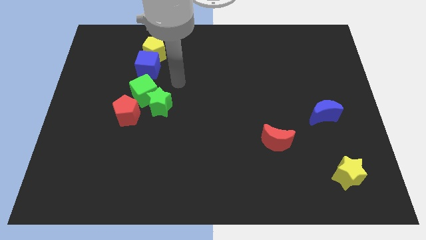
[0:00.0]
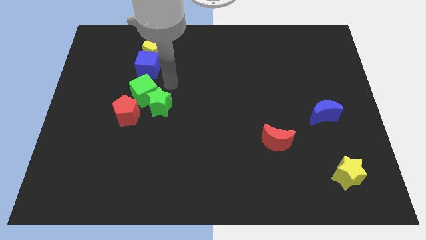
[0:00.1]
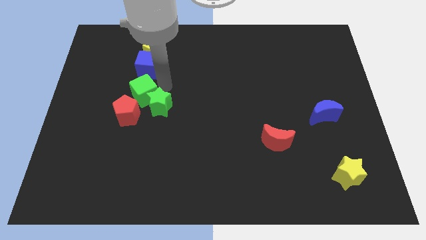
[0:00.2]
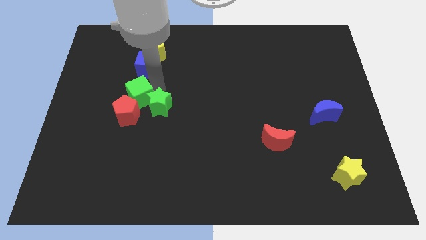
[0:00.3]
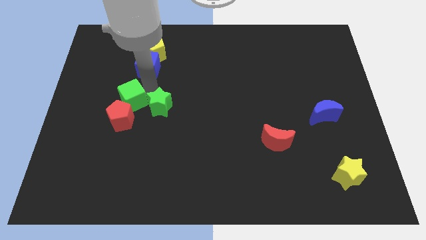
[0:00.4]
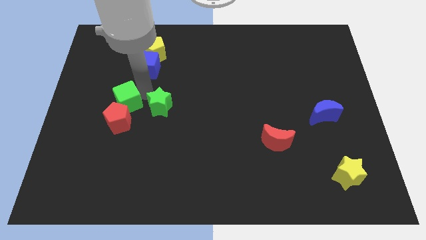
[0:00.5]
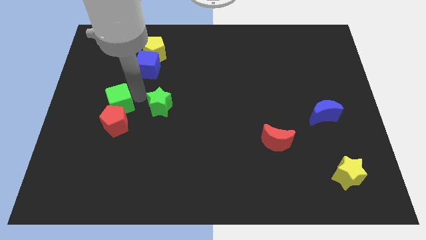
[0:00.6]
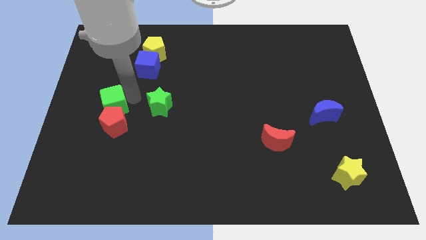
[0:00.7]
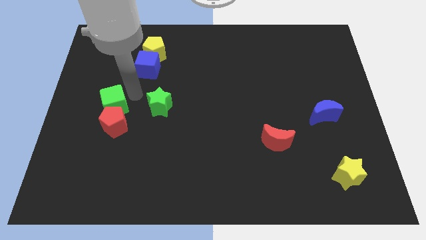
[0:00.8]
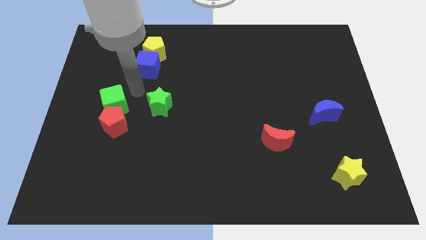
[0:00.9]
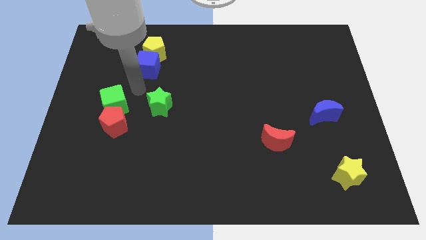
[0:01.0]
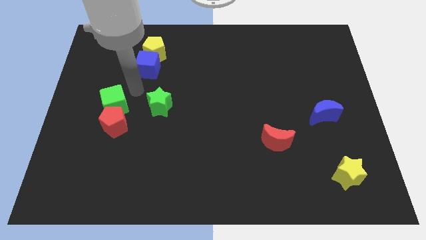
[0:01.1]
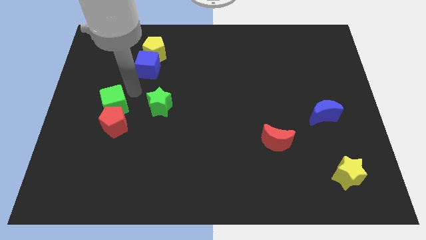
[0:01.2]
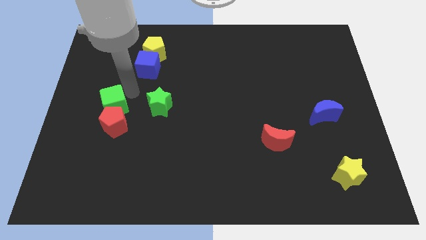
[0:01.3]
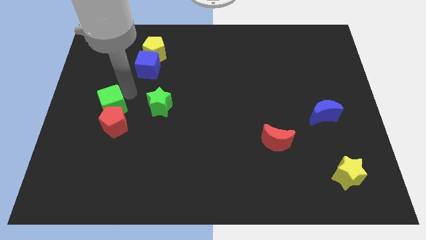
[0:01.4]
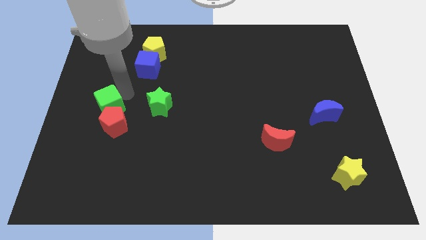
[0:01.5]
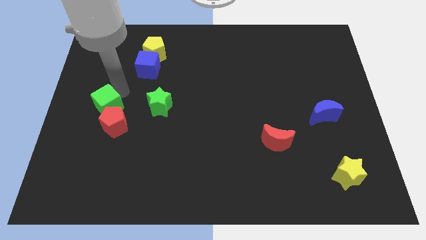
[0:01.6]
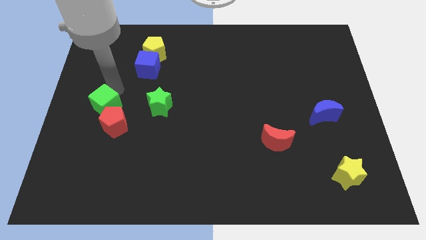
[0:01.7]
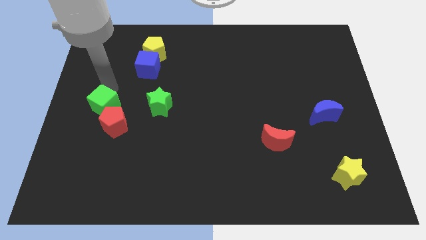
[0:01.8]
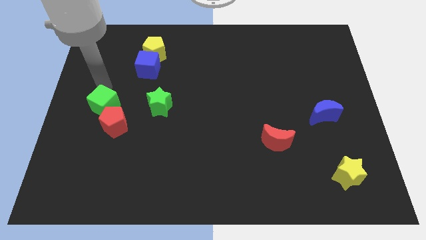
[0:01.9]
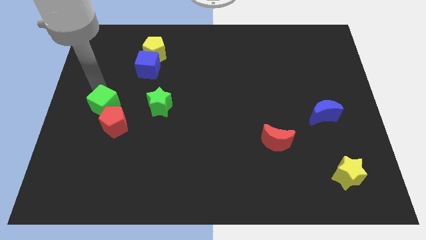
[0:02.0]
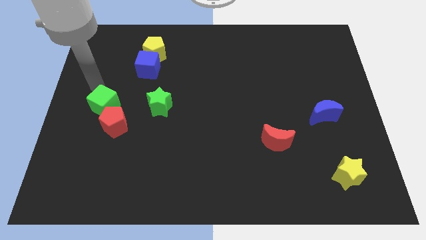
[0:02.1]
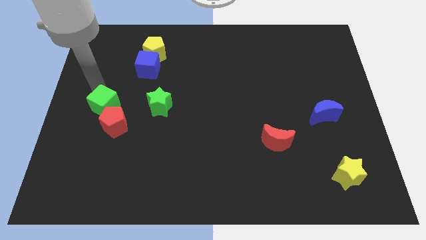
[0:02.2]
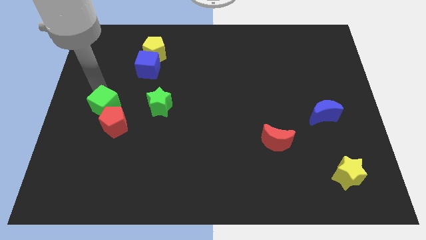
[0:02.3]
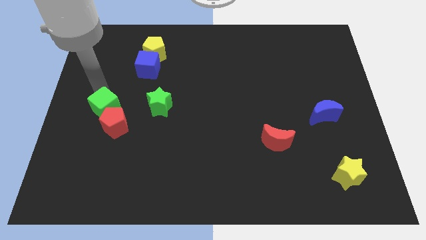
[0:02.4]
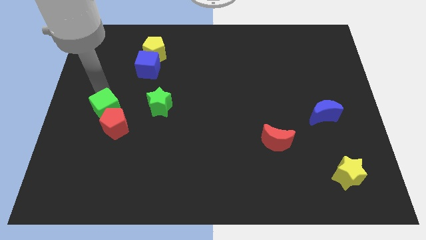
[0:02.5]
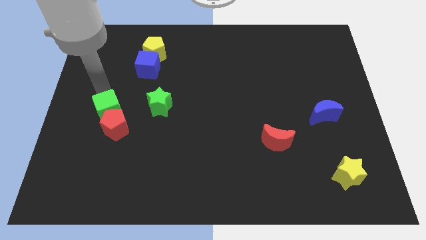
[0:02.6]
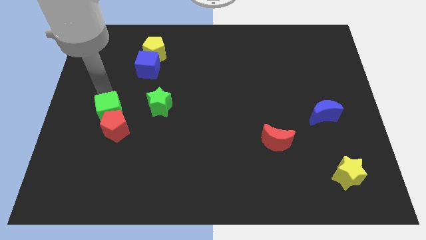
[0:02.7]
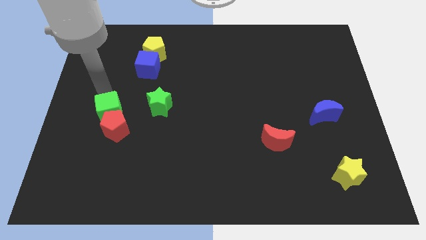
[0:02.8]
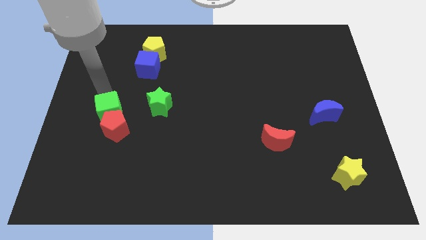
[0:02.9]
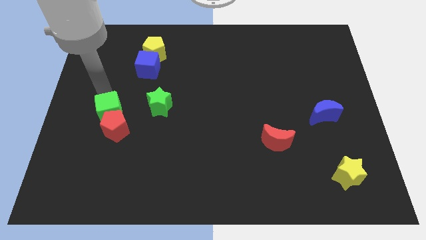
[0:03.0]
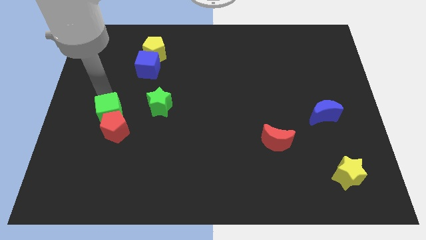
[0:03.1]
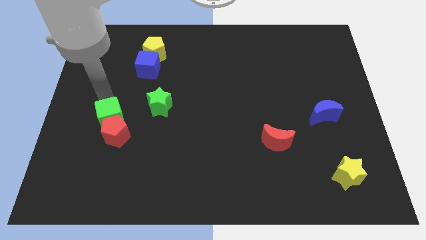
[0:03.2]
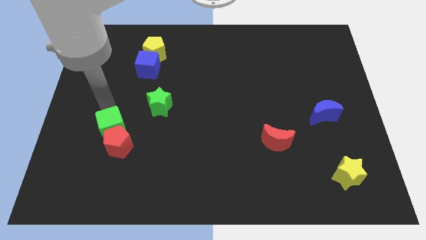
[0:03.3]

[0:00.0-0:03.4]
slightly slide the green cube downwards

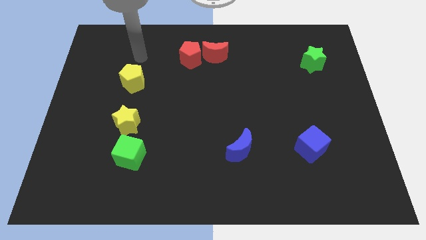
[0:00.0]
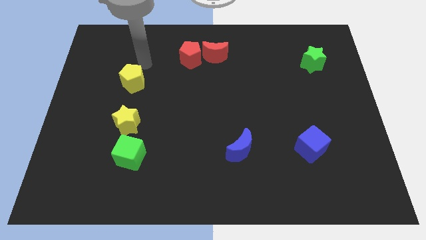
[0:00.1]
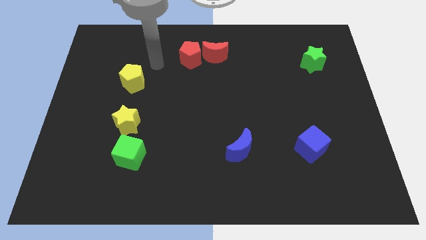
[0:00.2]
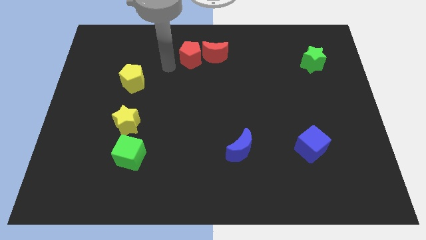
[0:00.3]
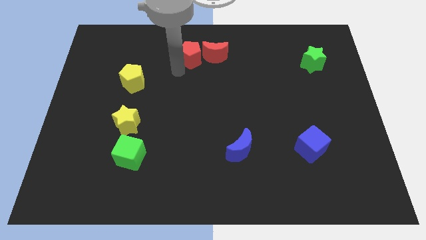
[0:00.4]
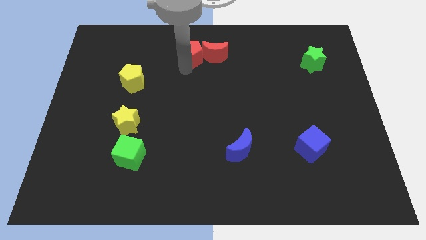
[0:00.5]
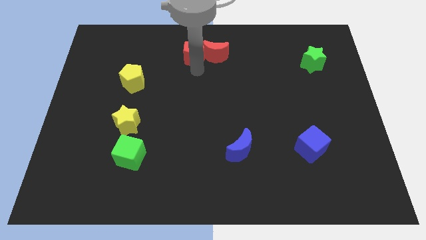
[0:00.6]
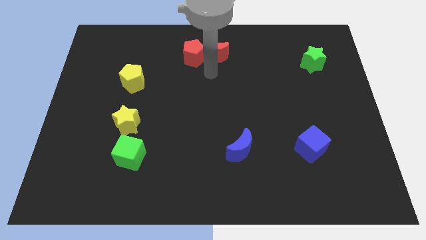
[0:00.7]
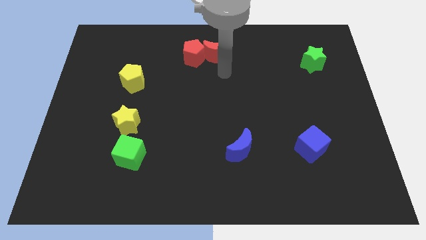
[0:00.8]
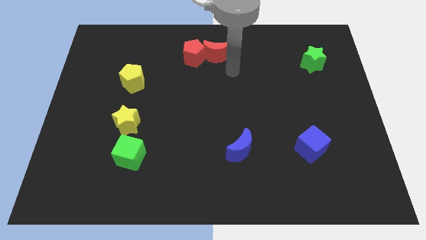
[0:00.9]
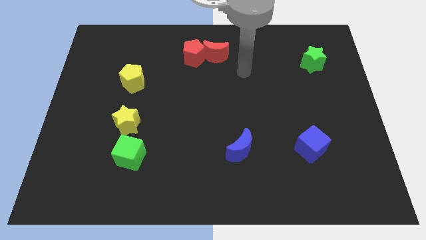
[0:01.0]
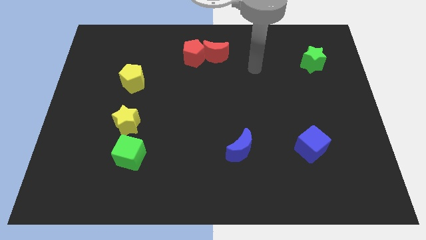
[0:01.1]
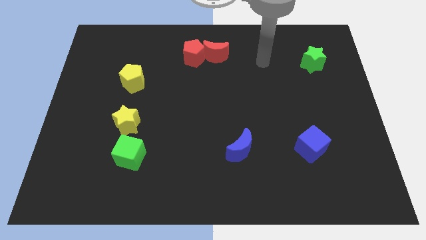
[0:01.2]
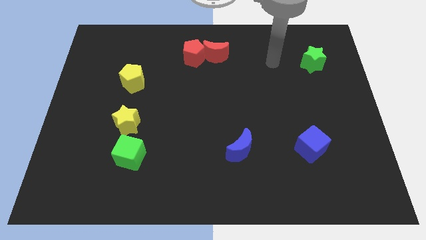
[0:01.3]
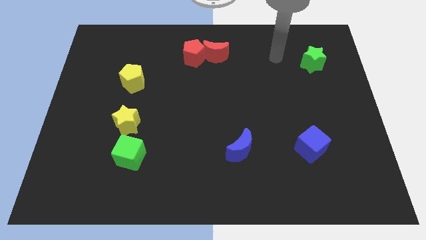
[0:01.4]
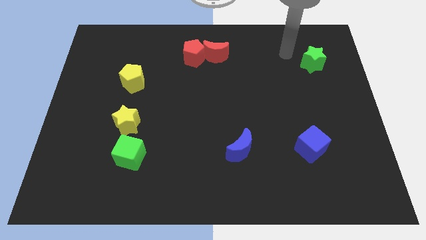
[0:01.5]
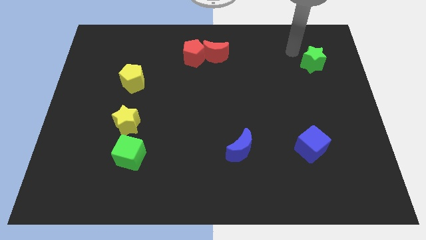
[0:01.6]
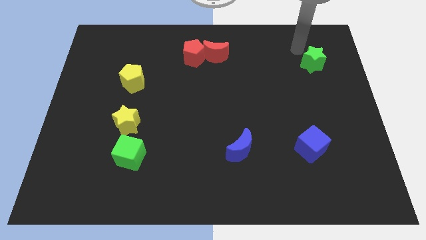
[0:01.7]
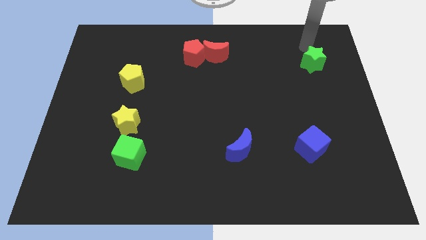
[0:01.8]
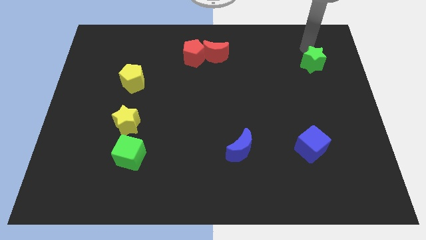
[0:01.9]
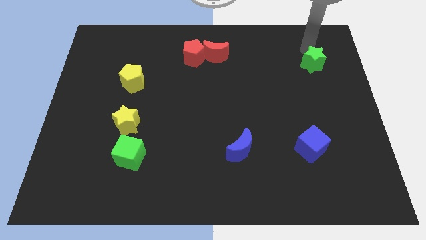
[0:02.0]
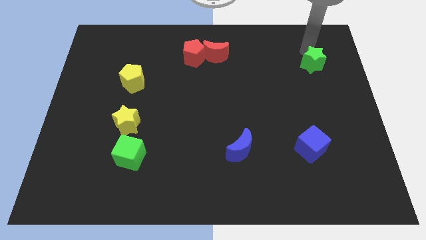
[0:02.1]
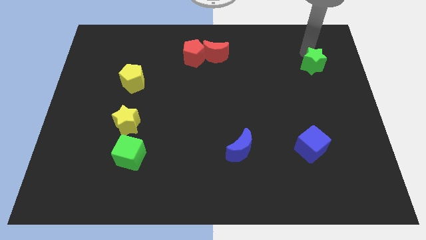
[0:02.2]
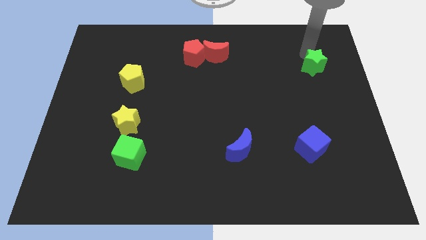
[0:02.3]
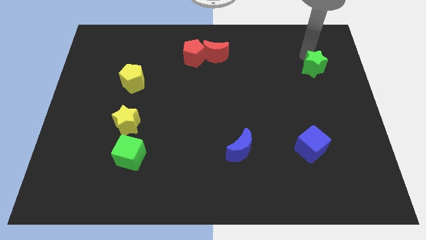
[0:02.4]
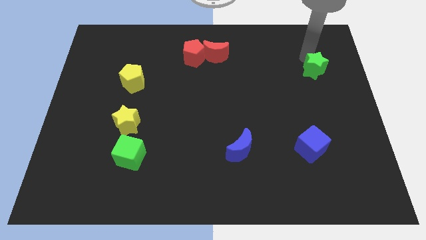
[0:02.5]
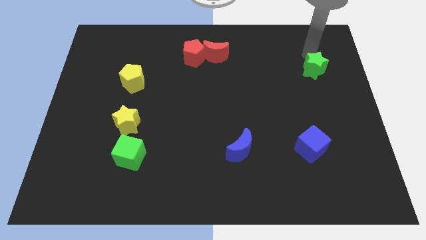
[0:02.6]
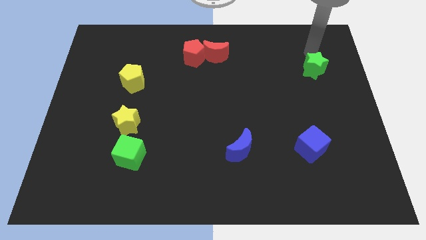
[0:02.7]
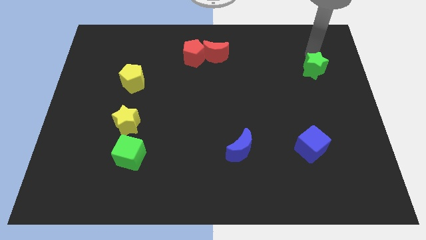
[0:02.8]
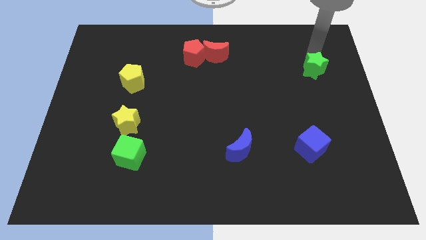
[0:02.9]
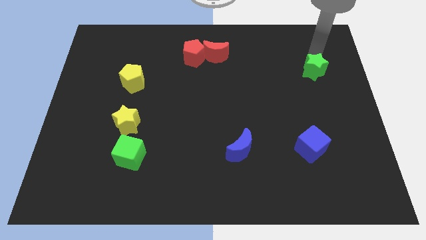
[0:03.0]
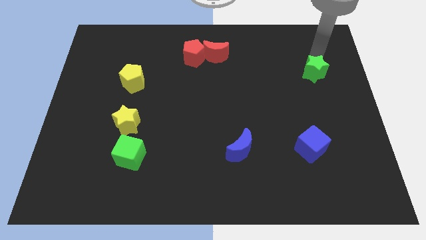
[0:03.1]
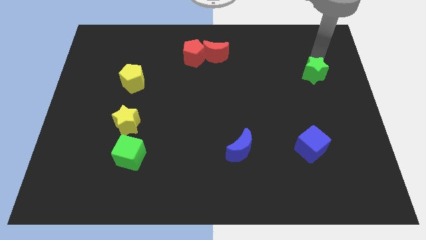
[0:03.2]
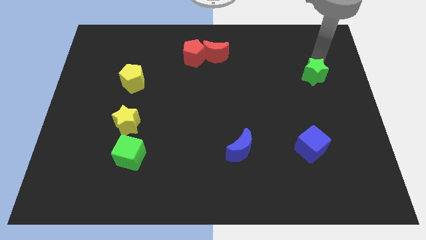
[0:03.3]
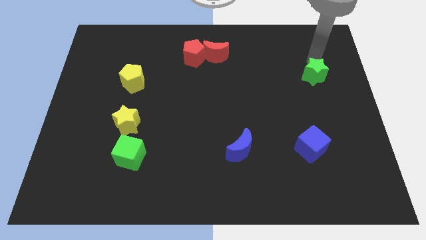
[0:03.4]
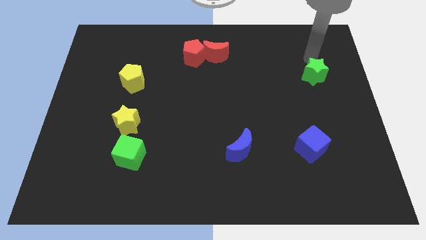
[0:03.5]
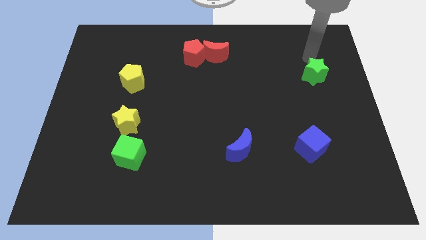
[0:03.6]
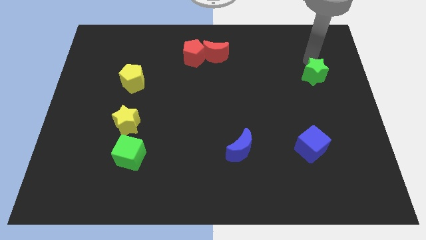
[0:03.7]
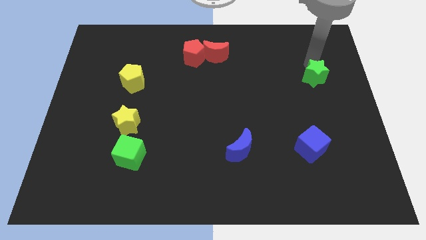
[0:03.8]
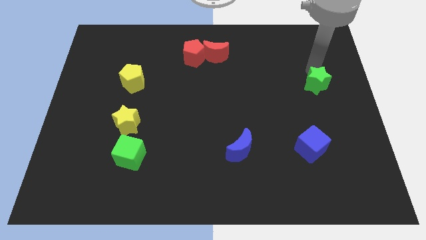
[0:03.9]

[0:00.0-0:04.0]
slide the green star downwards slightly
